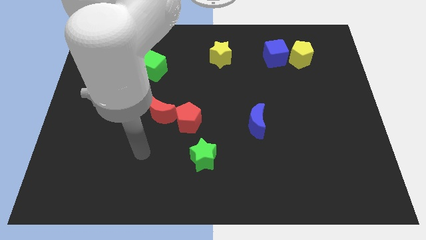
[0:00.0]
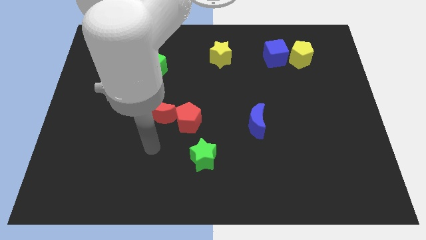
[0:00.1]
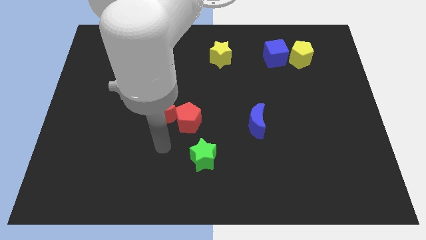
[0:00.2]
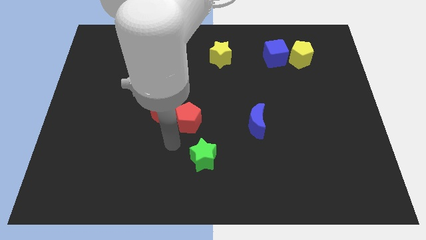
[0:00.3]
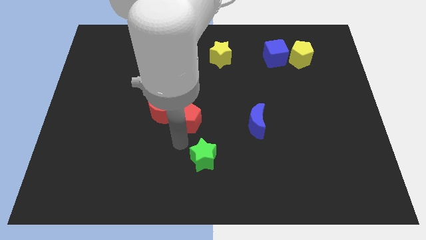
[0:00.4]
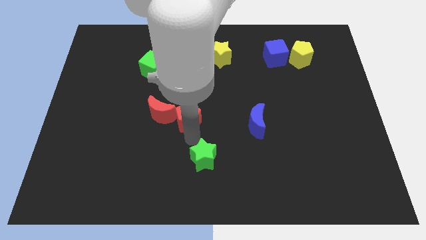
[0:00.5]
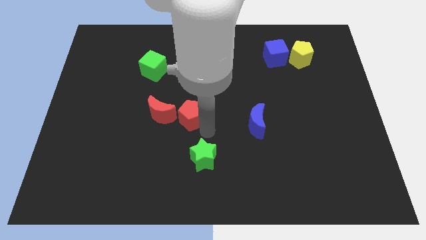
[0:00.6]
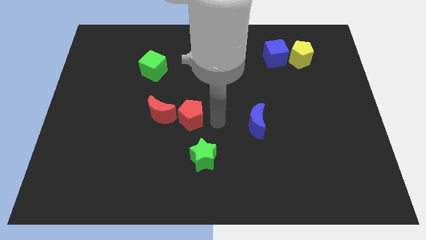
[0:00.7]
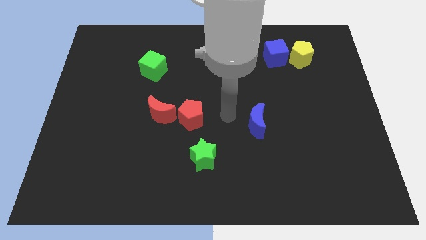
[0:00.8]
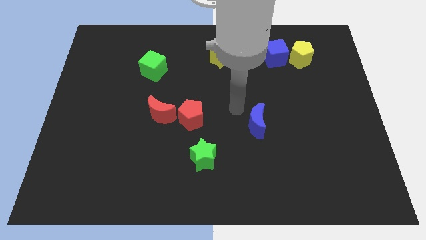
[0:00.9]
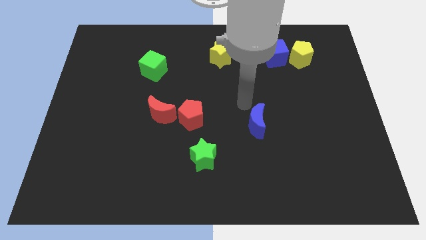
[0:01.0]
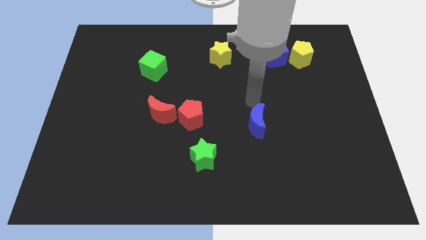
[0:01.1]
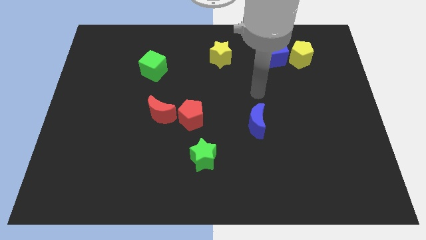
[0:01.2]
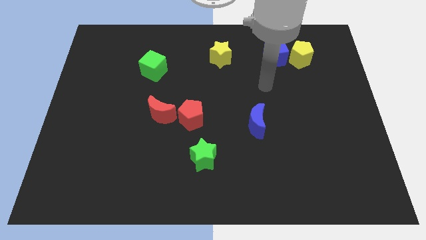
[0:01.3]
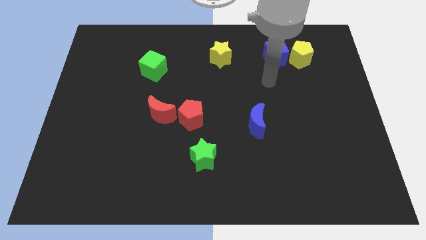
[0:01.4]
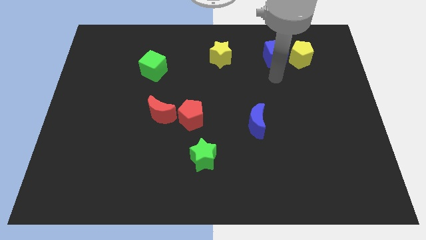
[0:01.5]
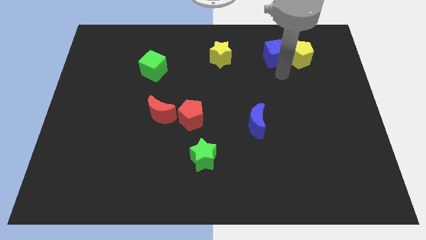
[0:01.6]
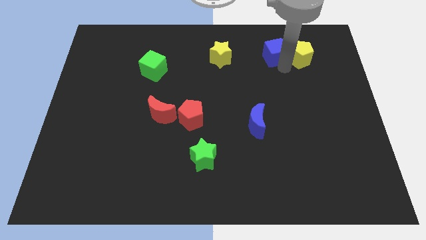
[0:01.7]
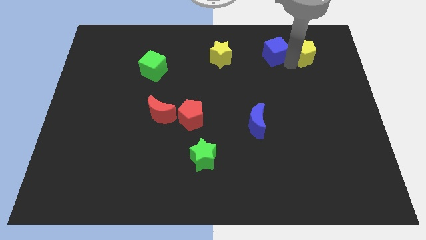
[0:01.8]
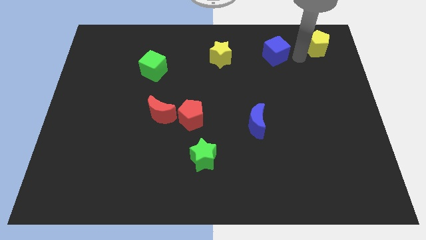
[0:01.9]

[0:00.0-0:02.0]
separate the blue cube from the yellow pentagon

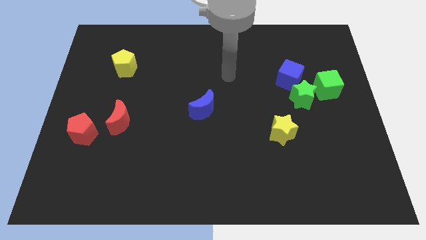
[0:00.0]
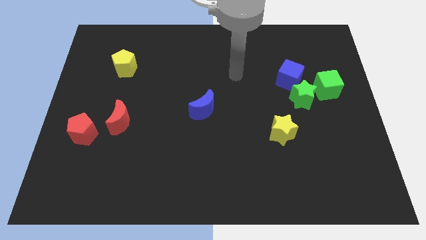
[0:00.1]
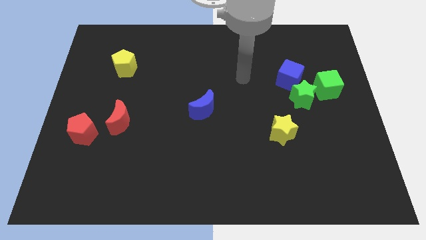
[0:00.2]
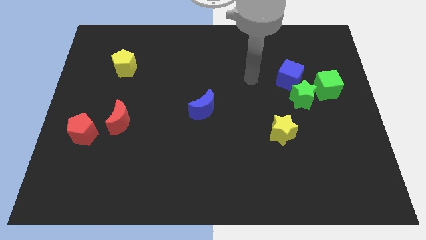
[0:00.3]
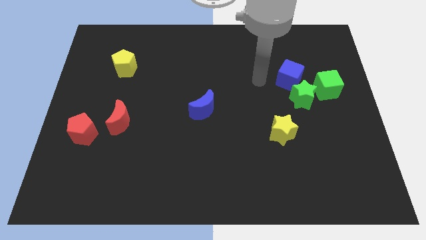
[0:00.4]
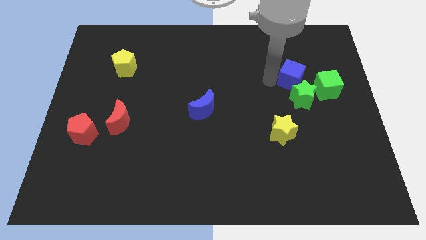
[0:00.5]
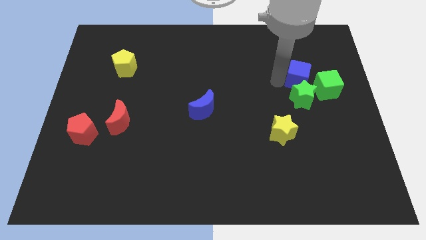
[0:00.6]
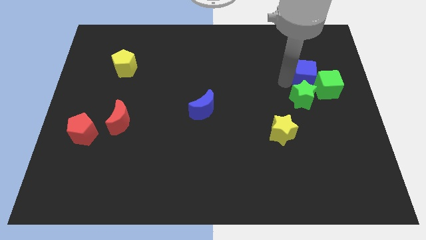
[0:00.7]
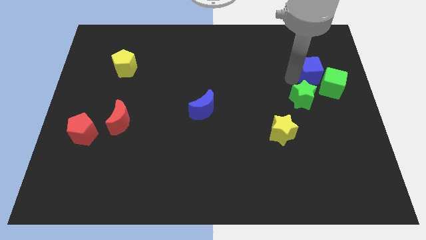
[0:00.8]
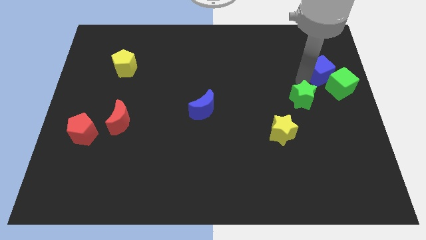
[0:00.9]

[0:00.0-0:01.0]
pull the green star apart from the blue cube and green cube

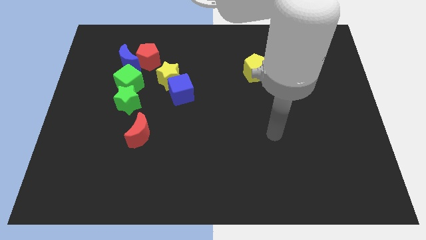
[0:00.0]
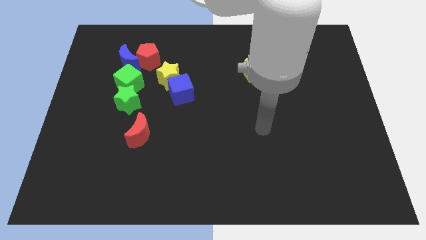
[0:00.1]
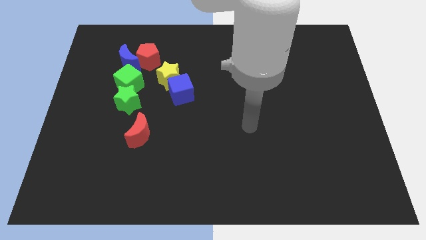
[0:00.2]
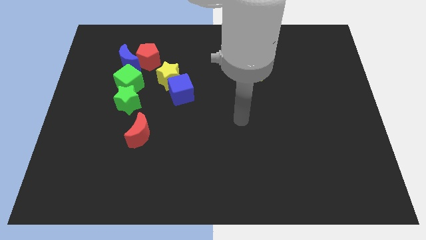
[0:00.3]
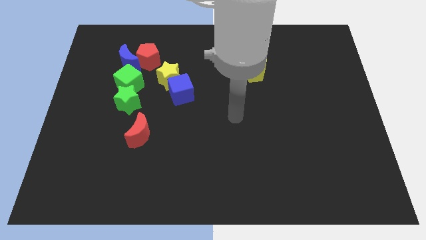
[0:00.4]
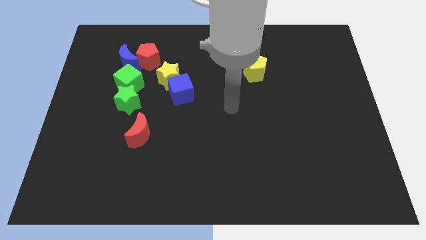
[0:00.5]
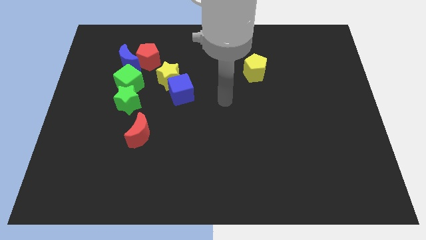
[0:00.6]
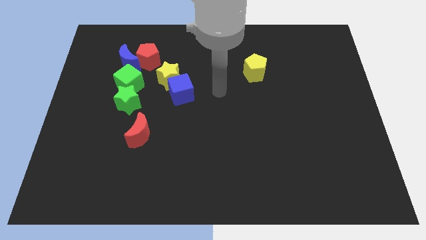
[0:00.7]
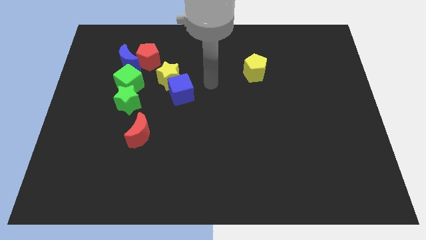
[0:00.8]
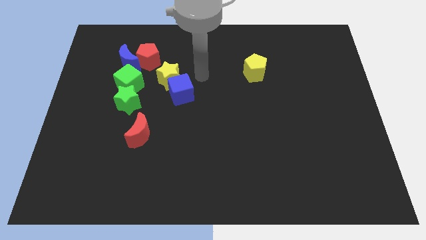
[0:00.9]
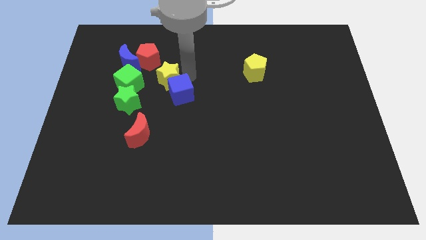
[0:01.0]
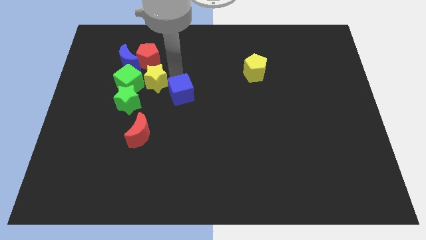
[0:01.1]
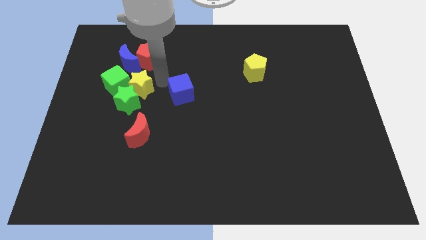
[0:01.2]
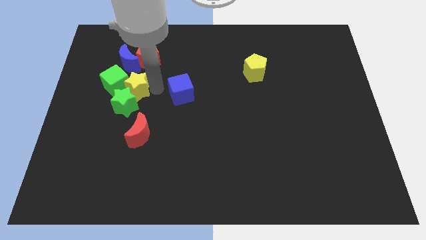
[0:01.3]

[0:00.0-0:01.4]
move the blue cube away from the yellow star

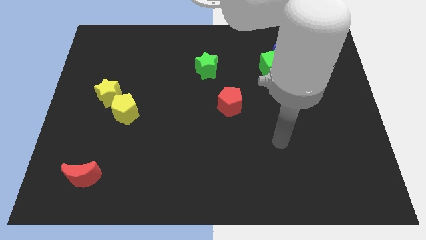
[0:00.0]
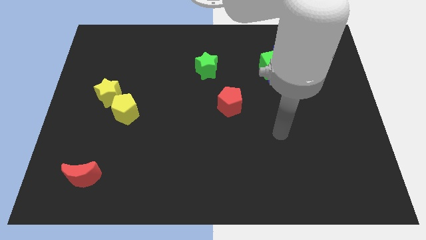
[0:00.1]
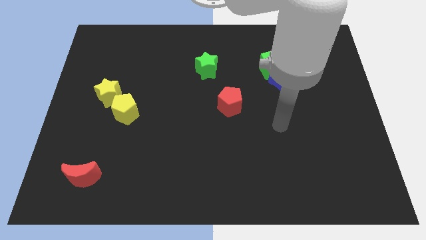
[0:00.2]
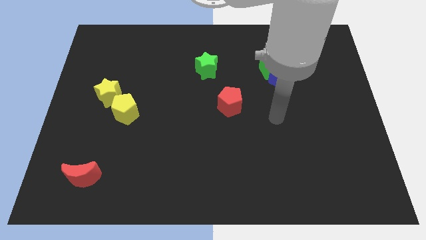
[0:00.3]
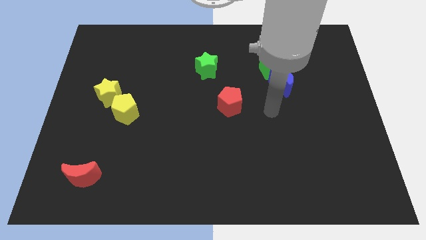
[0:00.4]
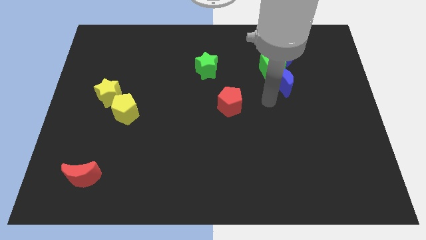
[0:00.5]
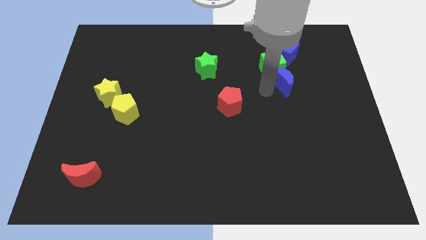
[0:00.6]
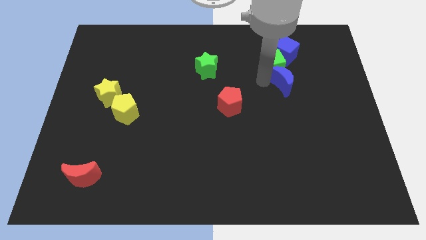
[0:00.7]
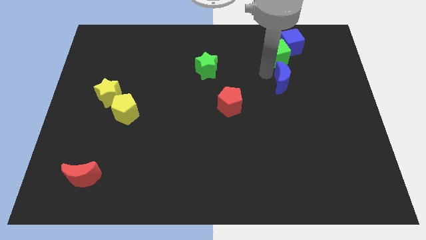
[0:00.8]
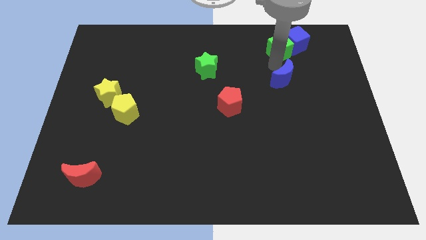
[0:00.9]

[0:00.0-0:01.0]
move the blue moon away from the green cube

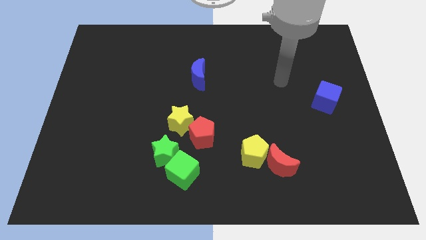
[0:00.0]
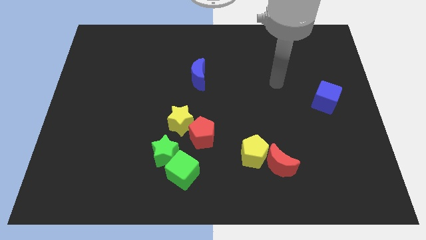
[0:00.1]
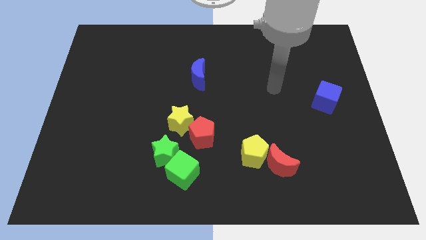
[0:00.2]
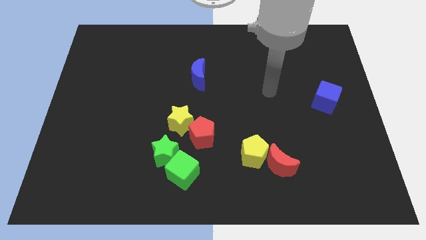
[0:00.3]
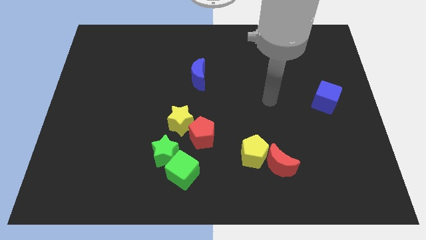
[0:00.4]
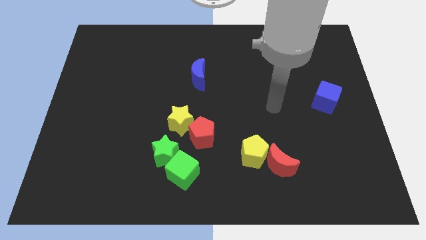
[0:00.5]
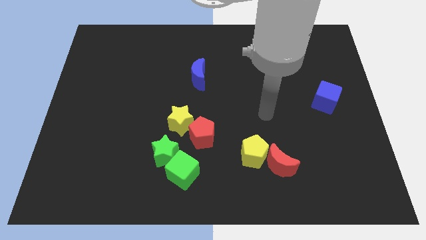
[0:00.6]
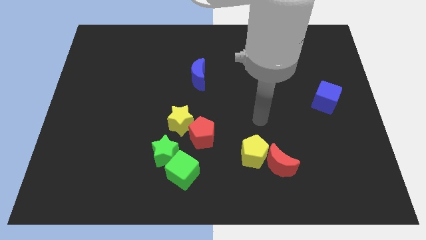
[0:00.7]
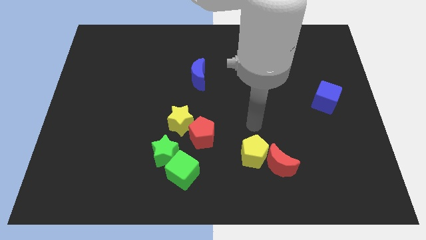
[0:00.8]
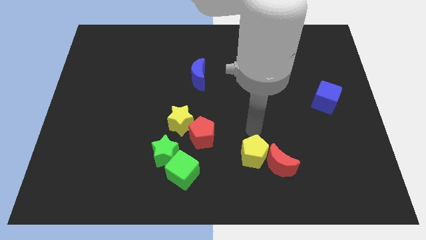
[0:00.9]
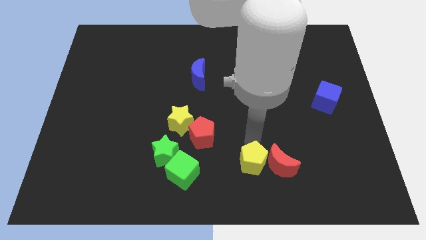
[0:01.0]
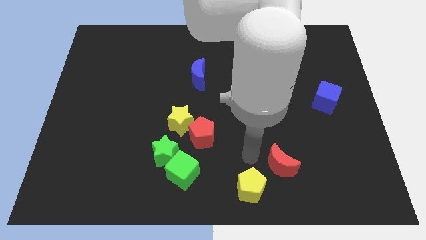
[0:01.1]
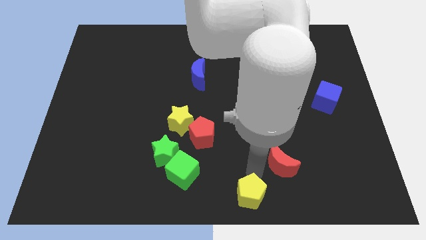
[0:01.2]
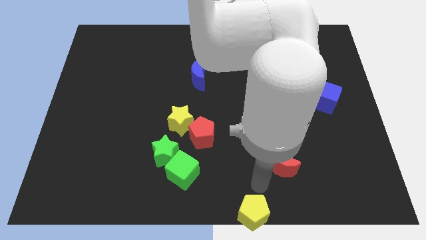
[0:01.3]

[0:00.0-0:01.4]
separate the red moon from the yellow pentagon

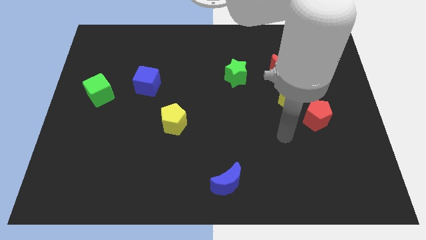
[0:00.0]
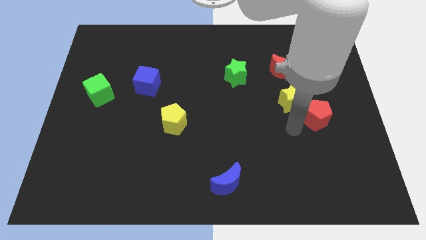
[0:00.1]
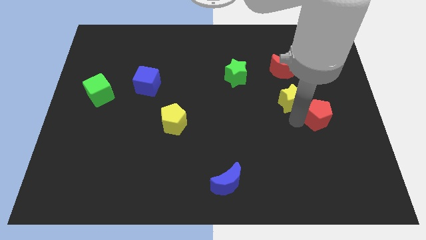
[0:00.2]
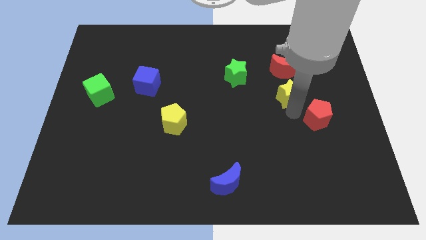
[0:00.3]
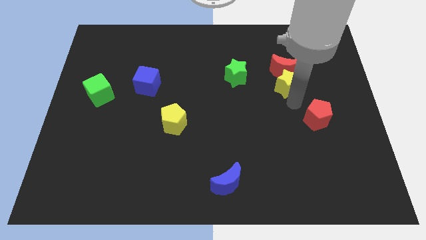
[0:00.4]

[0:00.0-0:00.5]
move the red pentagon away from the yellow star

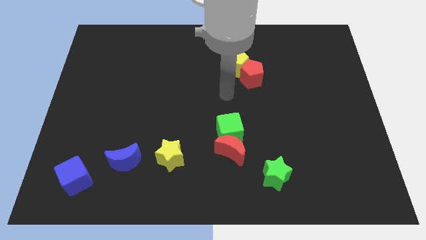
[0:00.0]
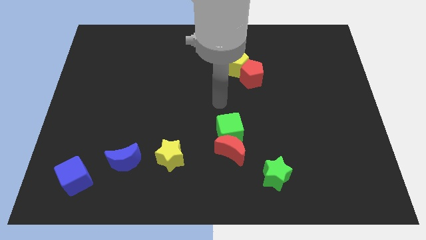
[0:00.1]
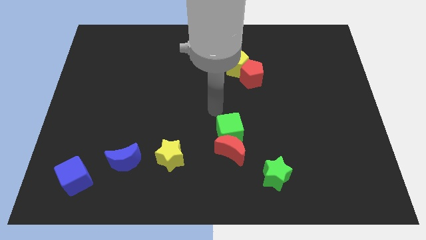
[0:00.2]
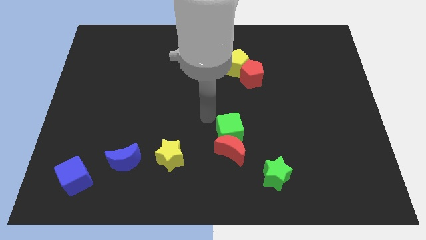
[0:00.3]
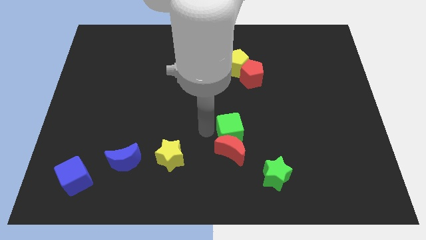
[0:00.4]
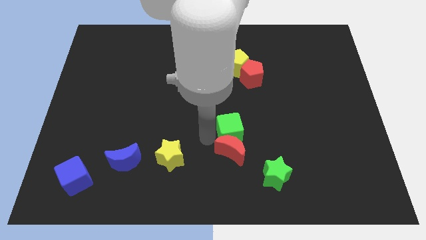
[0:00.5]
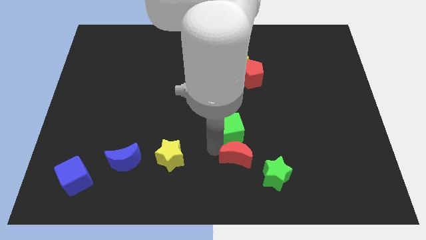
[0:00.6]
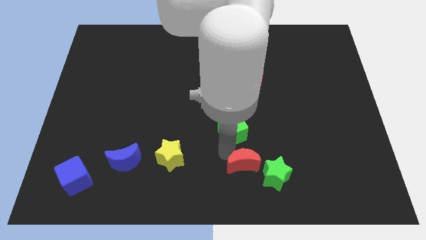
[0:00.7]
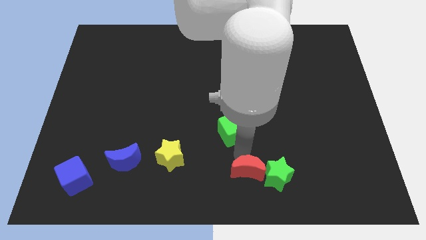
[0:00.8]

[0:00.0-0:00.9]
separate the green cube from the red moon

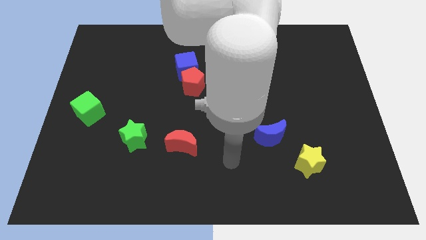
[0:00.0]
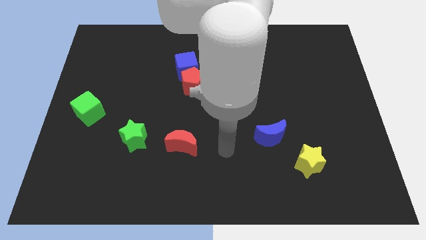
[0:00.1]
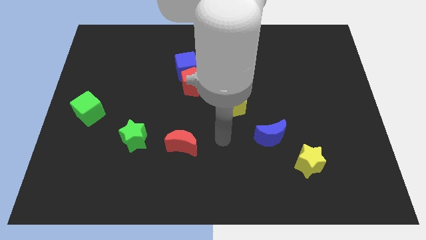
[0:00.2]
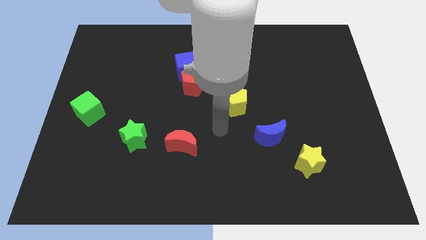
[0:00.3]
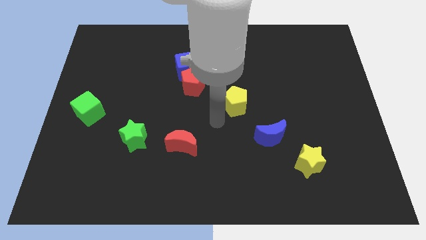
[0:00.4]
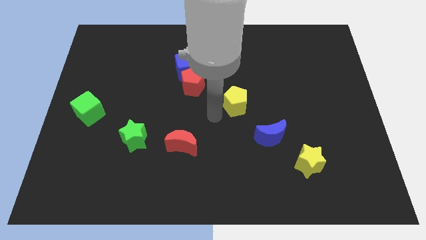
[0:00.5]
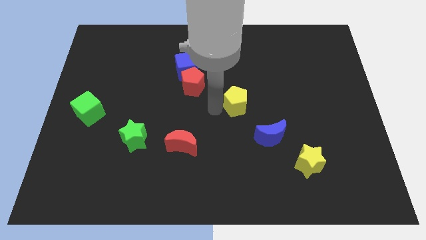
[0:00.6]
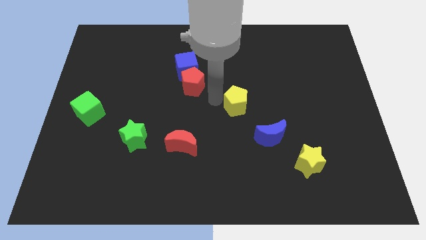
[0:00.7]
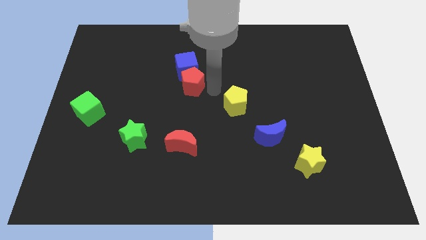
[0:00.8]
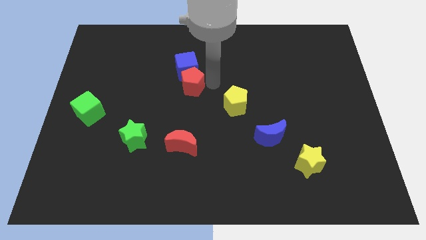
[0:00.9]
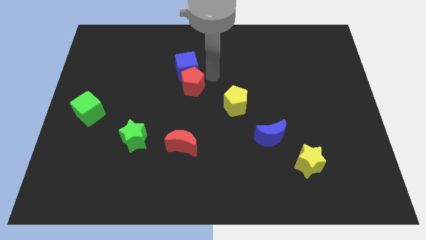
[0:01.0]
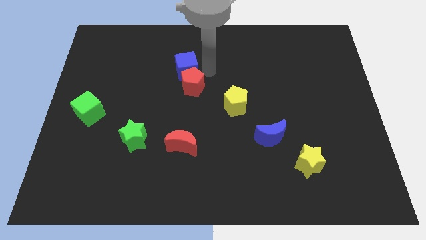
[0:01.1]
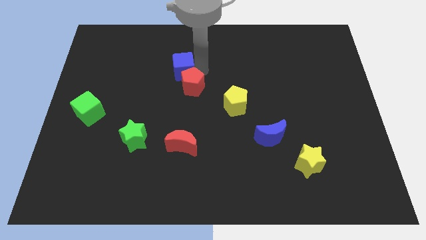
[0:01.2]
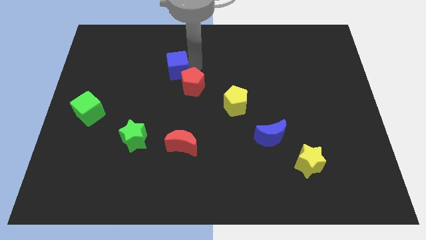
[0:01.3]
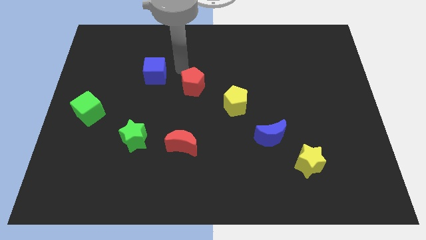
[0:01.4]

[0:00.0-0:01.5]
separate the red pentagon from the blue cube
